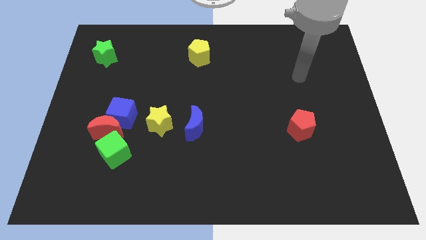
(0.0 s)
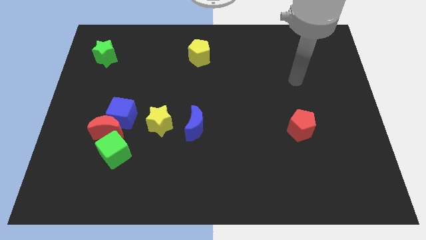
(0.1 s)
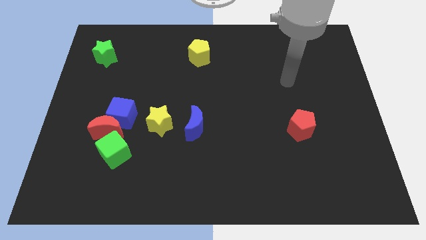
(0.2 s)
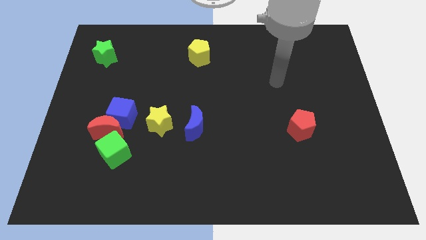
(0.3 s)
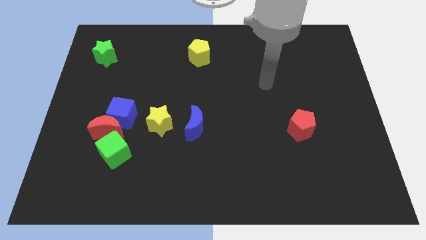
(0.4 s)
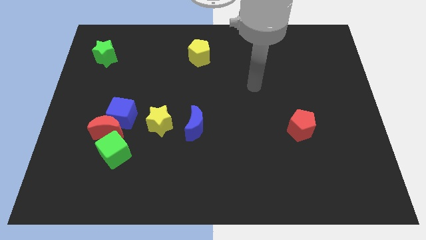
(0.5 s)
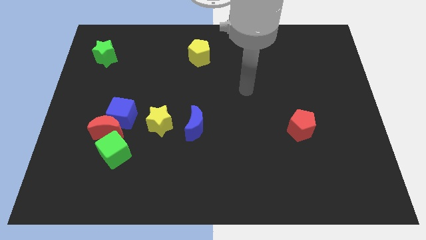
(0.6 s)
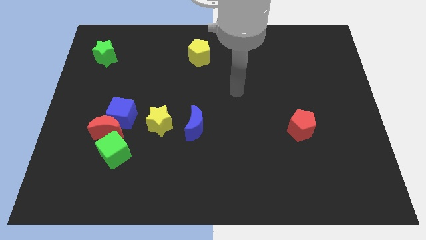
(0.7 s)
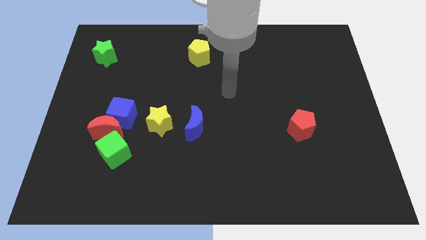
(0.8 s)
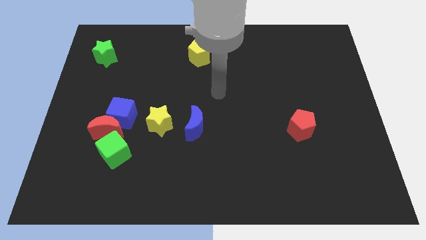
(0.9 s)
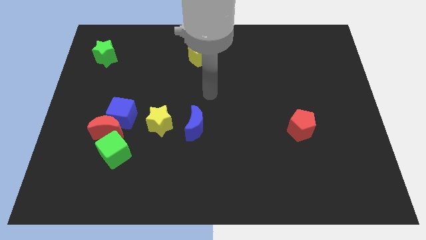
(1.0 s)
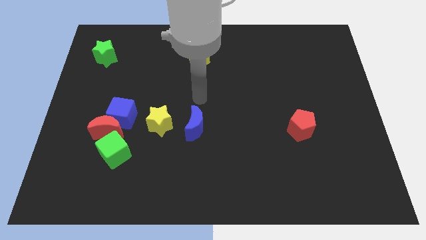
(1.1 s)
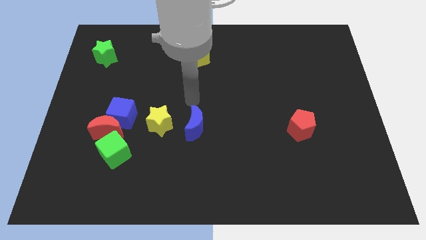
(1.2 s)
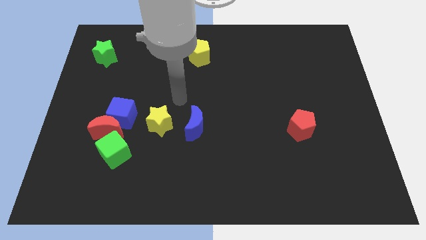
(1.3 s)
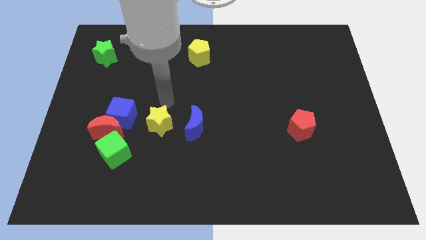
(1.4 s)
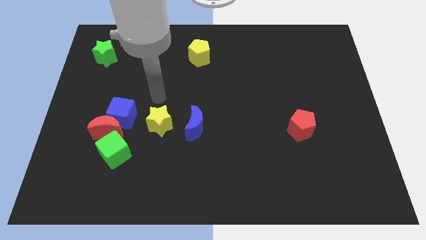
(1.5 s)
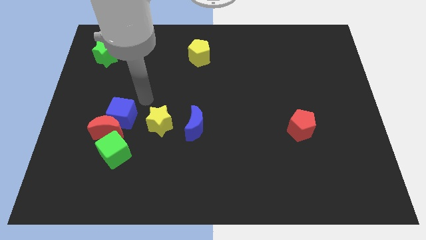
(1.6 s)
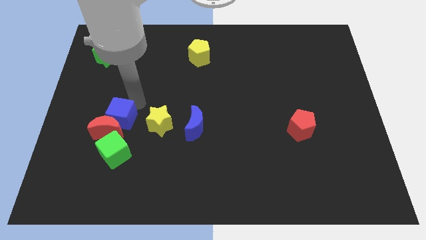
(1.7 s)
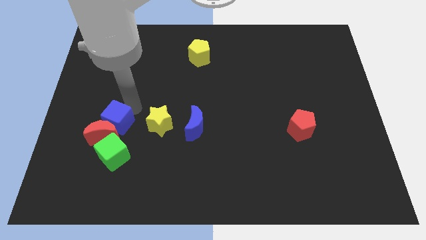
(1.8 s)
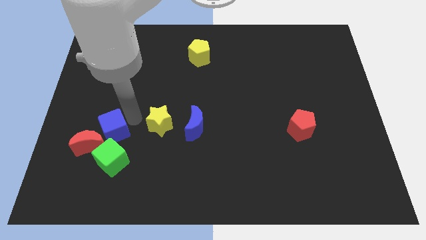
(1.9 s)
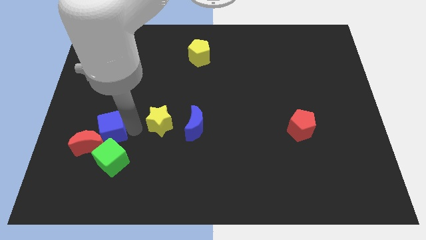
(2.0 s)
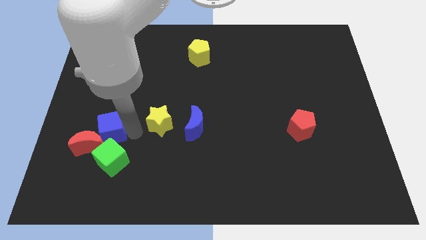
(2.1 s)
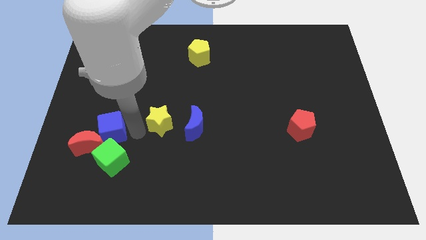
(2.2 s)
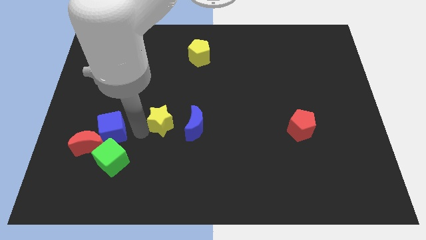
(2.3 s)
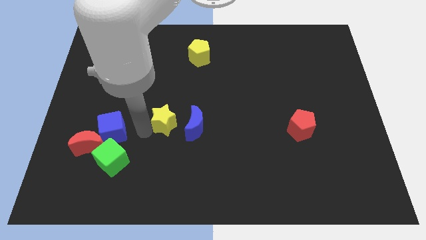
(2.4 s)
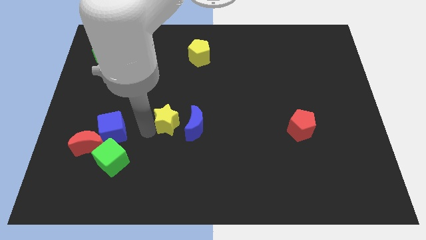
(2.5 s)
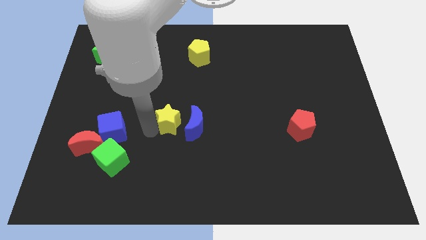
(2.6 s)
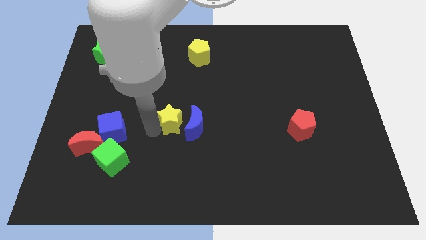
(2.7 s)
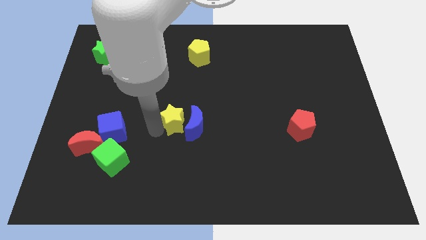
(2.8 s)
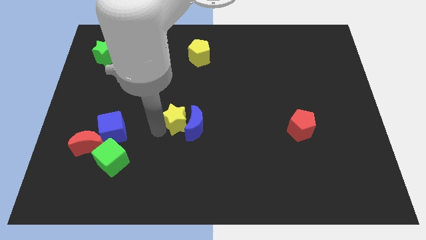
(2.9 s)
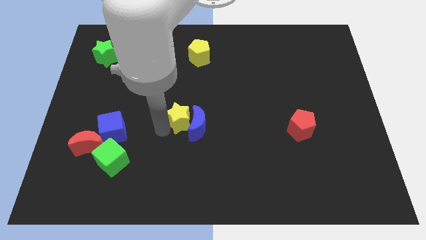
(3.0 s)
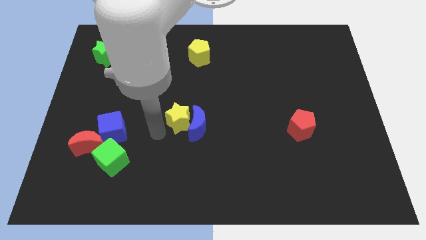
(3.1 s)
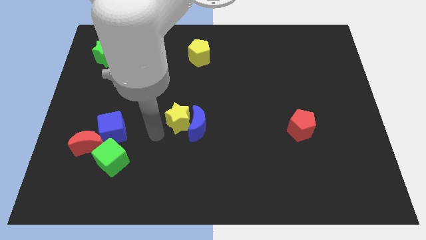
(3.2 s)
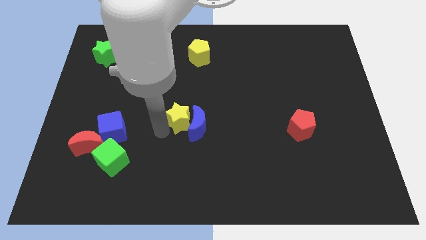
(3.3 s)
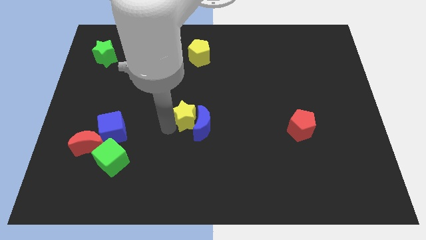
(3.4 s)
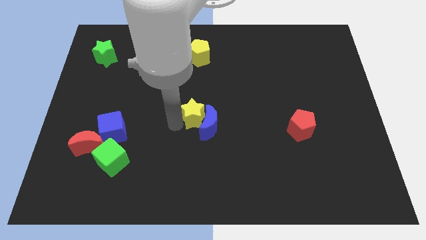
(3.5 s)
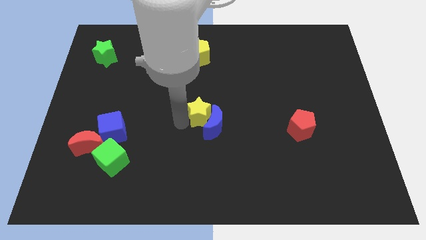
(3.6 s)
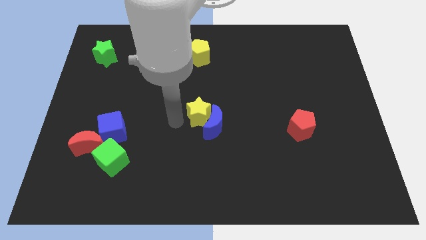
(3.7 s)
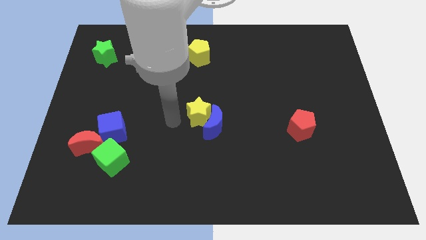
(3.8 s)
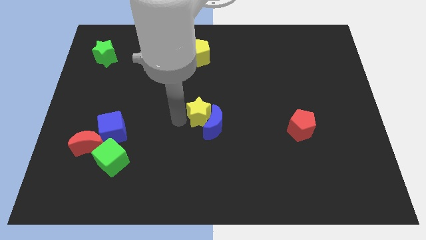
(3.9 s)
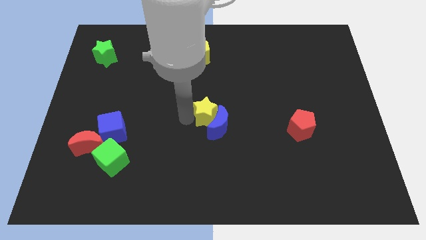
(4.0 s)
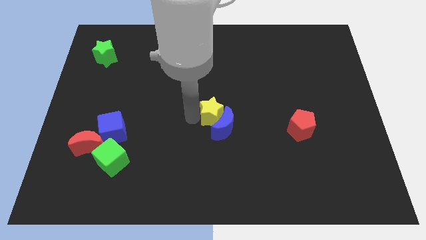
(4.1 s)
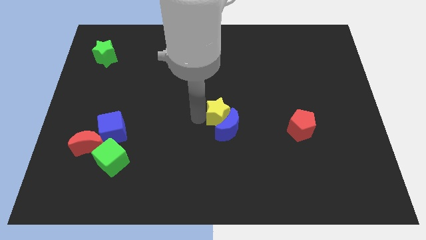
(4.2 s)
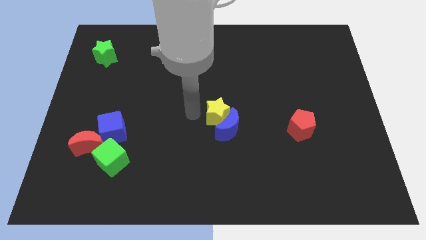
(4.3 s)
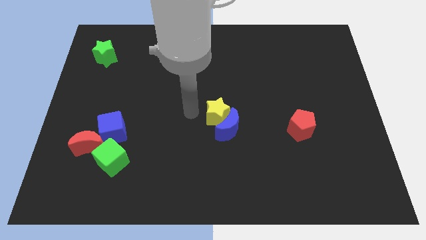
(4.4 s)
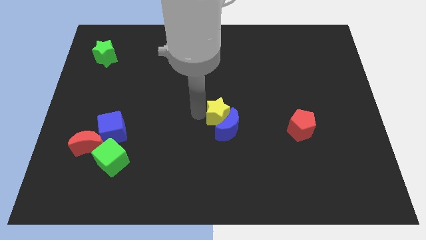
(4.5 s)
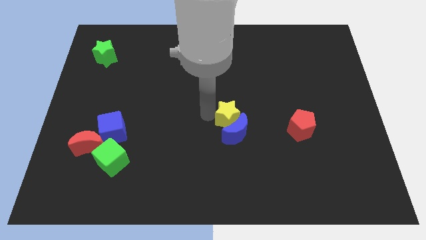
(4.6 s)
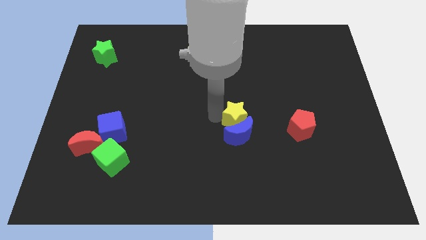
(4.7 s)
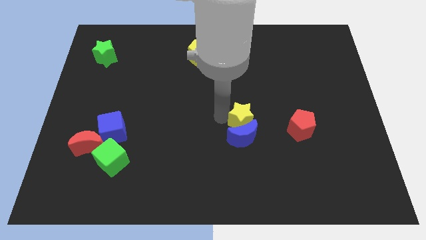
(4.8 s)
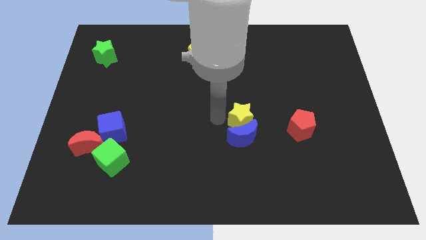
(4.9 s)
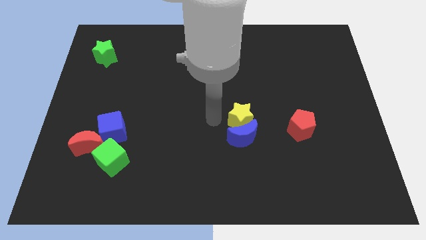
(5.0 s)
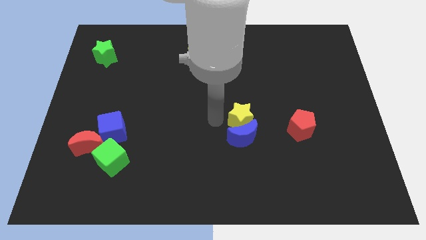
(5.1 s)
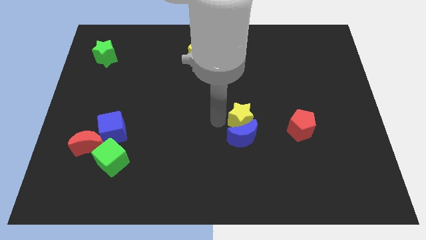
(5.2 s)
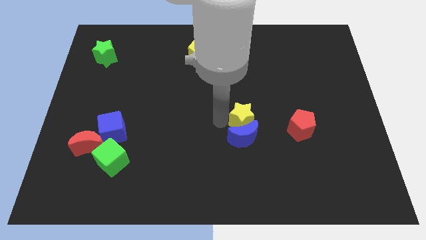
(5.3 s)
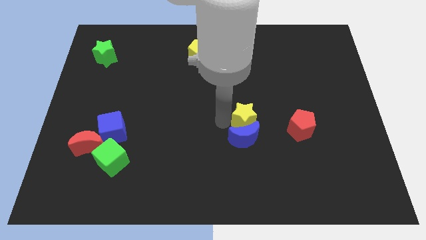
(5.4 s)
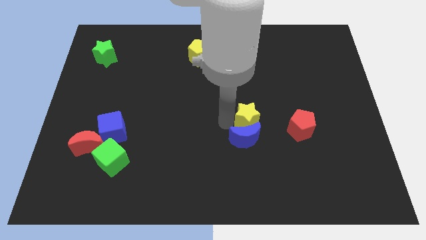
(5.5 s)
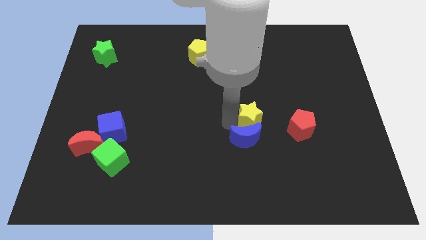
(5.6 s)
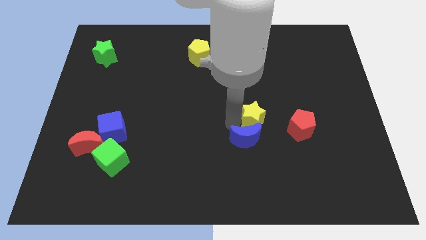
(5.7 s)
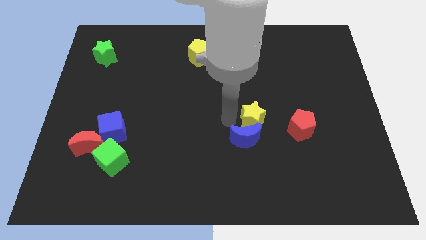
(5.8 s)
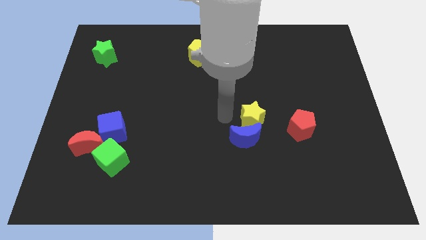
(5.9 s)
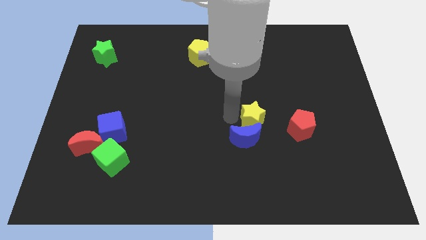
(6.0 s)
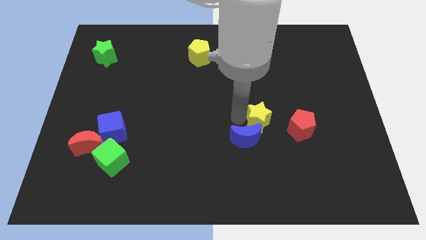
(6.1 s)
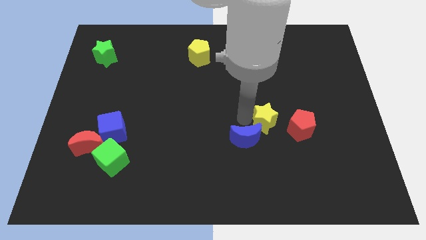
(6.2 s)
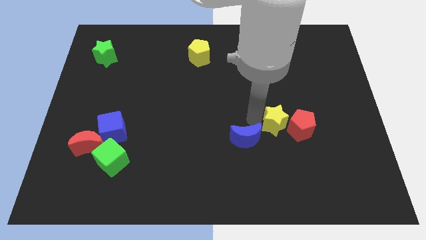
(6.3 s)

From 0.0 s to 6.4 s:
push the yellow star towards the red pentagon
